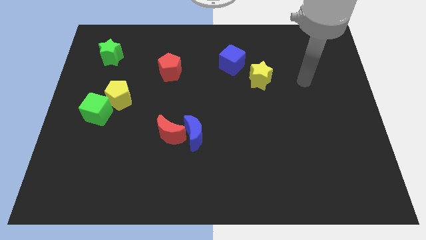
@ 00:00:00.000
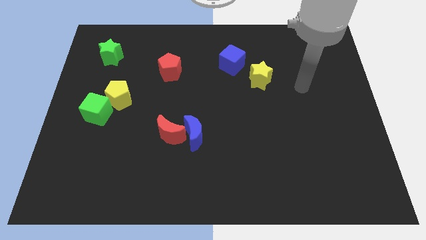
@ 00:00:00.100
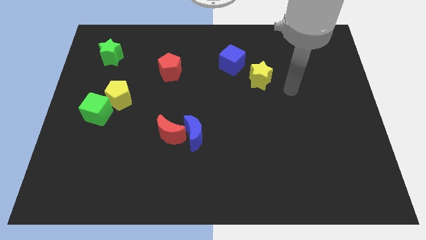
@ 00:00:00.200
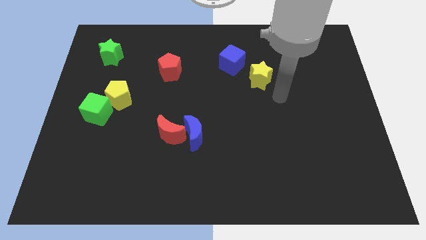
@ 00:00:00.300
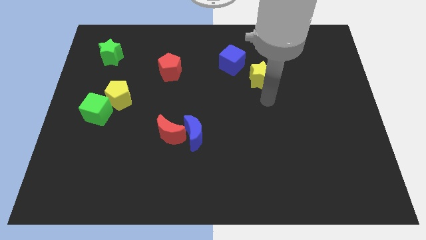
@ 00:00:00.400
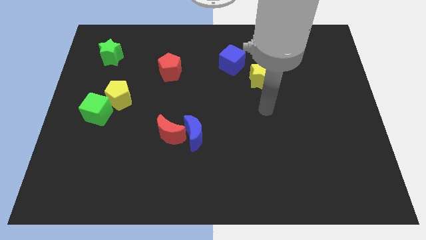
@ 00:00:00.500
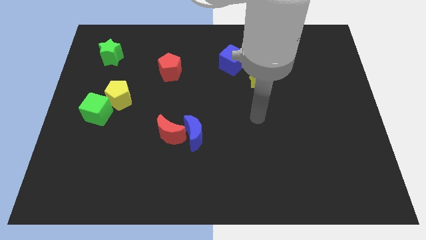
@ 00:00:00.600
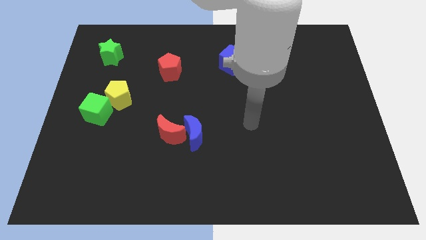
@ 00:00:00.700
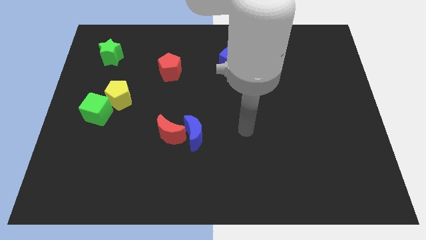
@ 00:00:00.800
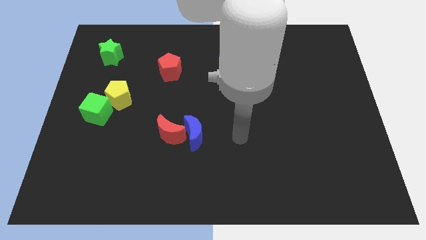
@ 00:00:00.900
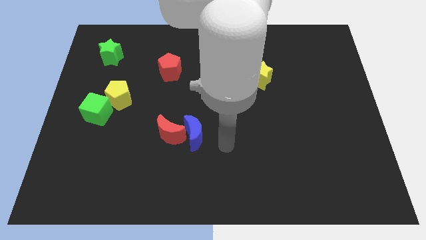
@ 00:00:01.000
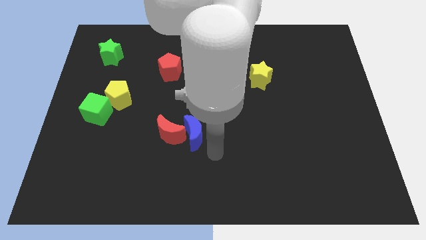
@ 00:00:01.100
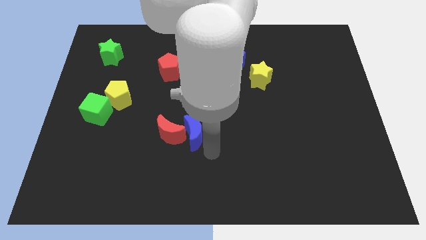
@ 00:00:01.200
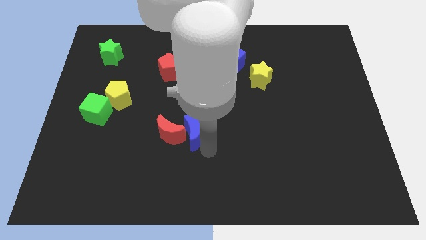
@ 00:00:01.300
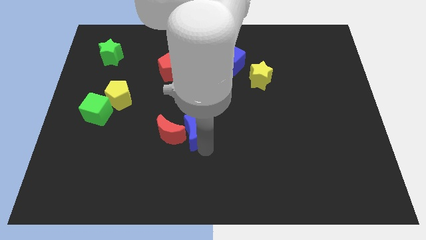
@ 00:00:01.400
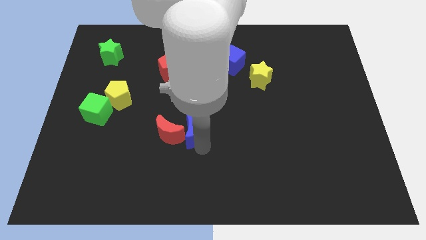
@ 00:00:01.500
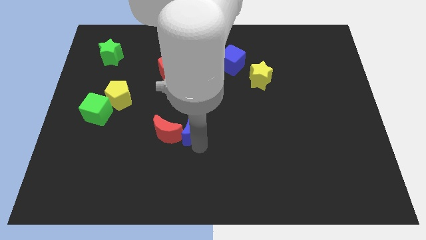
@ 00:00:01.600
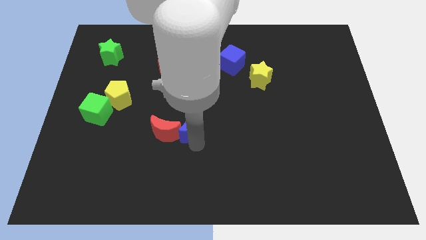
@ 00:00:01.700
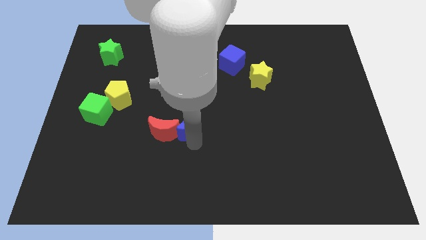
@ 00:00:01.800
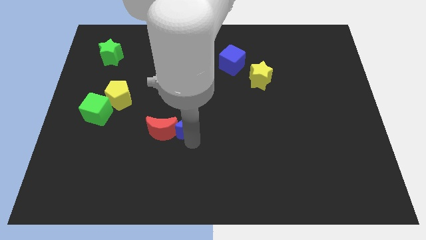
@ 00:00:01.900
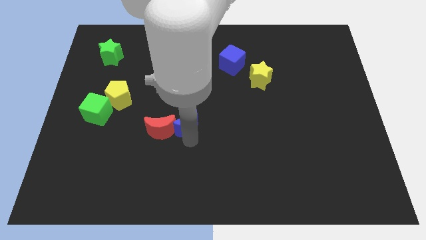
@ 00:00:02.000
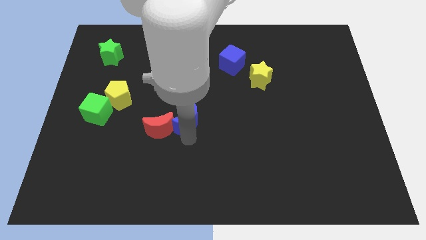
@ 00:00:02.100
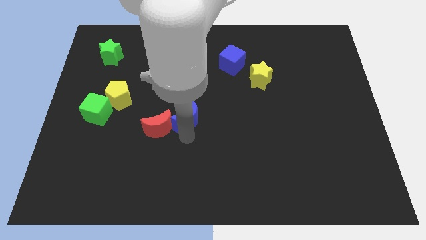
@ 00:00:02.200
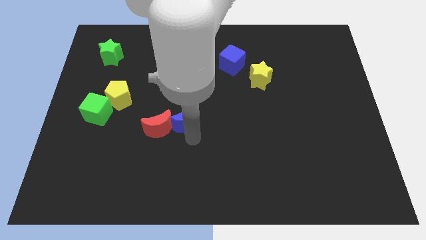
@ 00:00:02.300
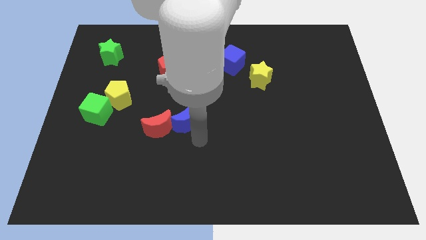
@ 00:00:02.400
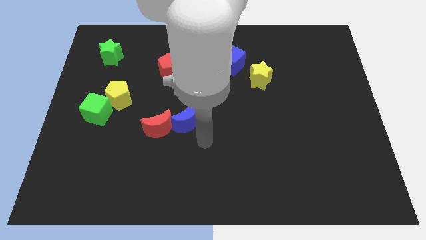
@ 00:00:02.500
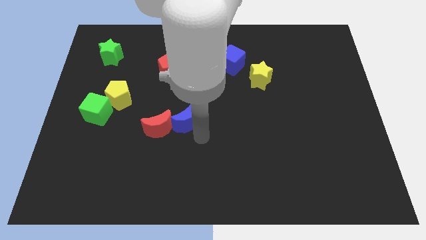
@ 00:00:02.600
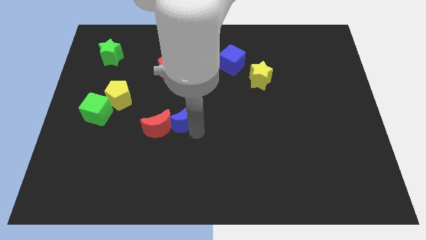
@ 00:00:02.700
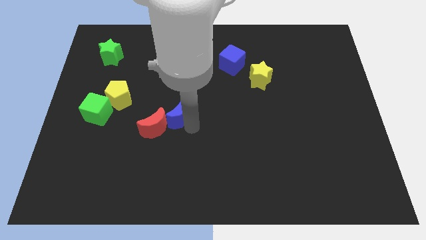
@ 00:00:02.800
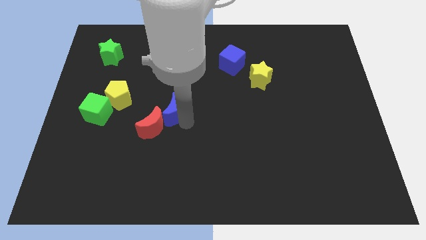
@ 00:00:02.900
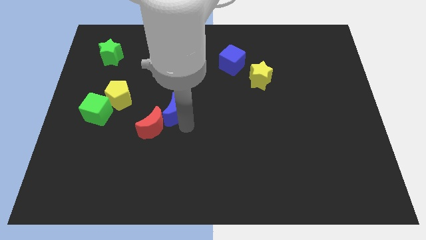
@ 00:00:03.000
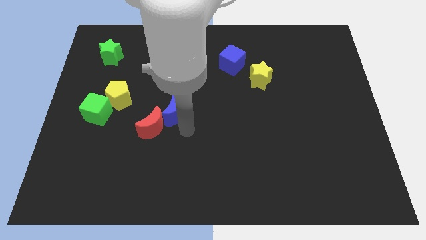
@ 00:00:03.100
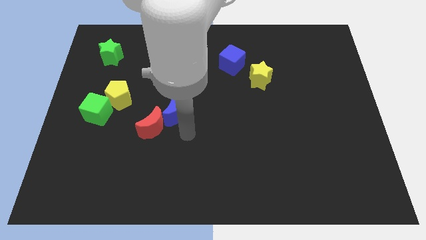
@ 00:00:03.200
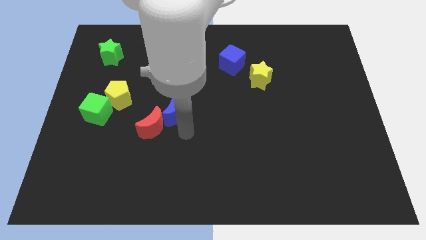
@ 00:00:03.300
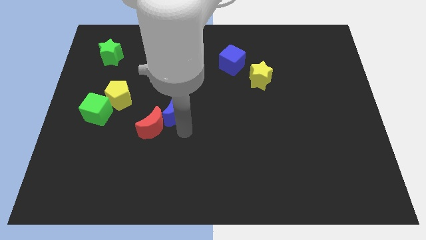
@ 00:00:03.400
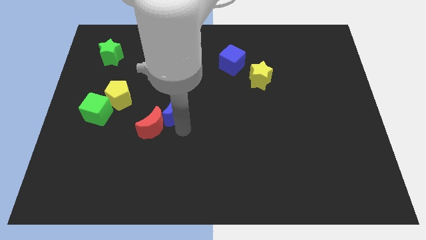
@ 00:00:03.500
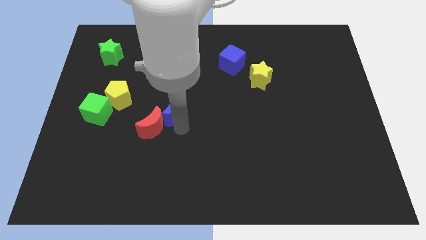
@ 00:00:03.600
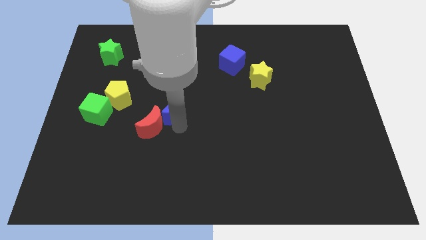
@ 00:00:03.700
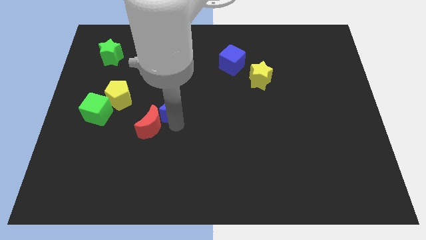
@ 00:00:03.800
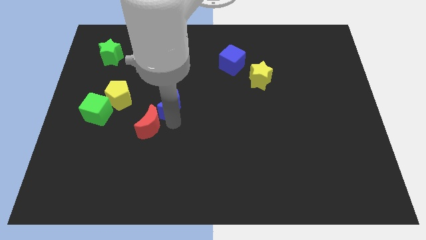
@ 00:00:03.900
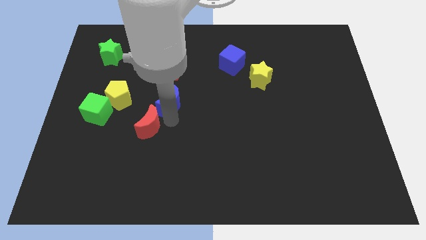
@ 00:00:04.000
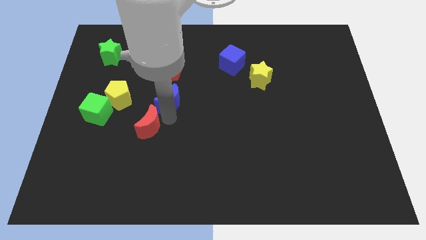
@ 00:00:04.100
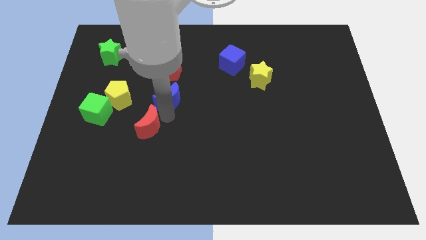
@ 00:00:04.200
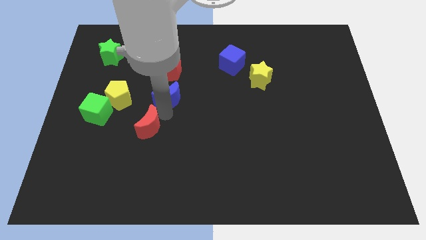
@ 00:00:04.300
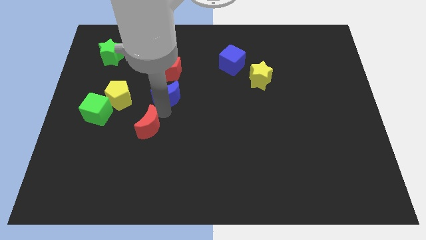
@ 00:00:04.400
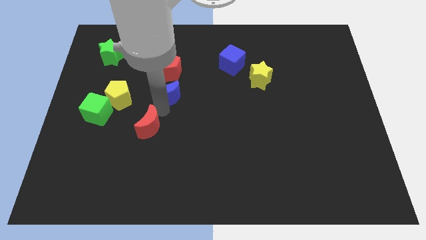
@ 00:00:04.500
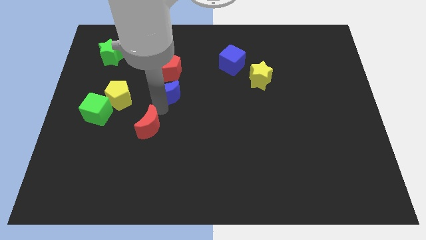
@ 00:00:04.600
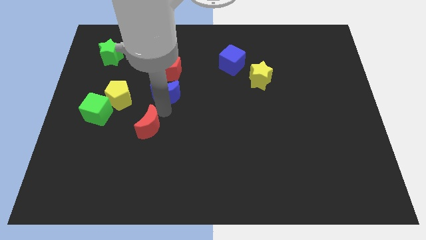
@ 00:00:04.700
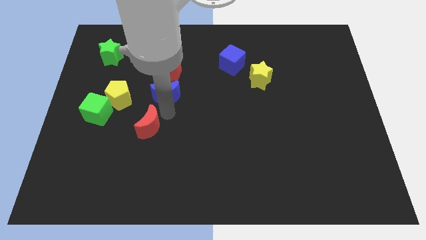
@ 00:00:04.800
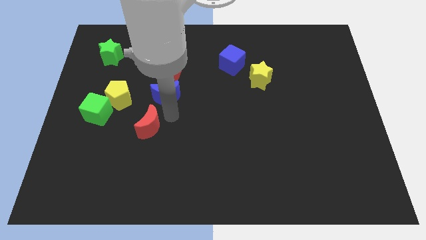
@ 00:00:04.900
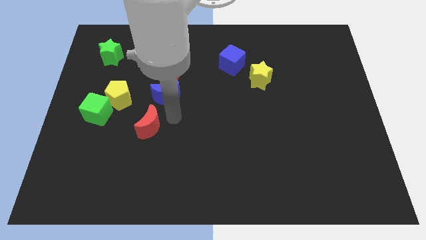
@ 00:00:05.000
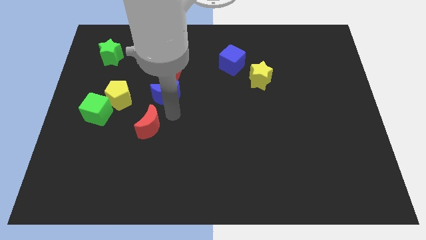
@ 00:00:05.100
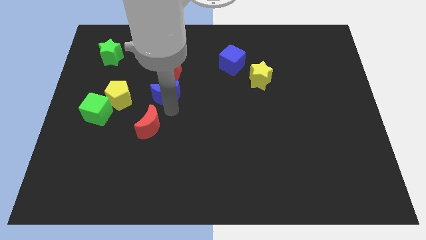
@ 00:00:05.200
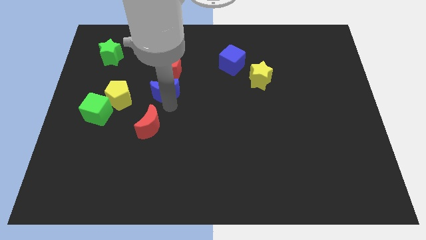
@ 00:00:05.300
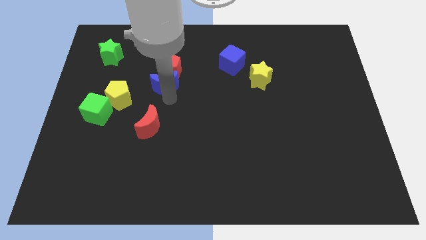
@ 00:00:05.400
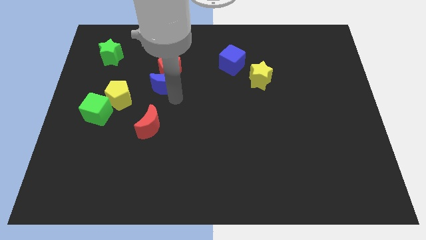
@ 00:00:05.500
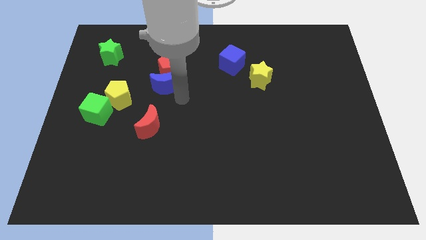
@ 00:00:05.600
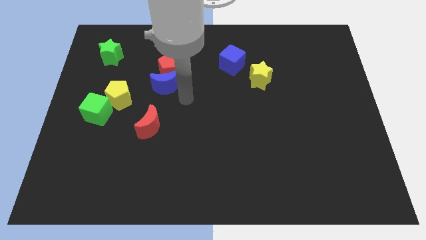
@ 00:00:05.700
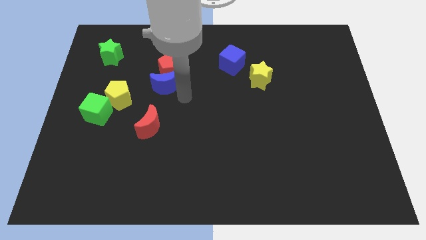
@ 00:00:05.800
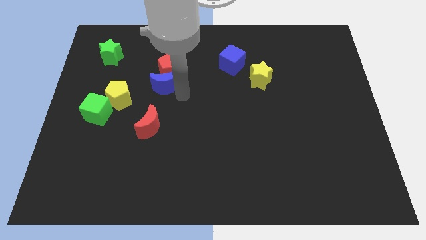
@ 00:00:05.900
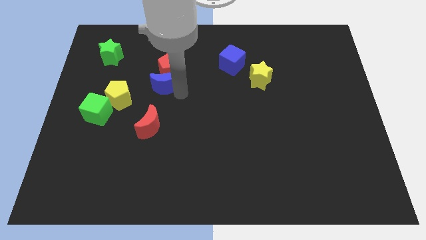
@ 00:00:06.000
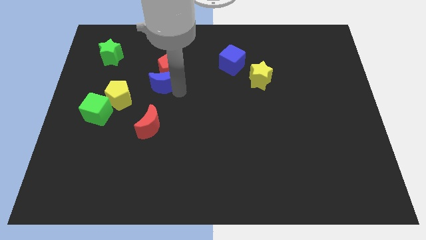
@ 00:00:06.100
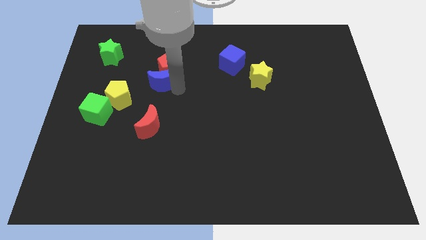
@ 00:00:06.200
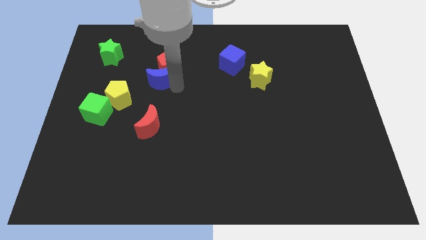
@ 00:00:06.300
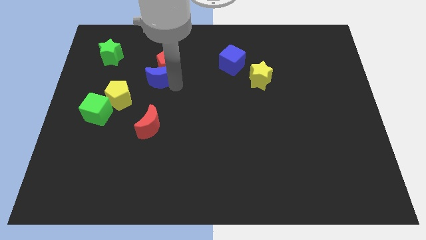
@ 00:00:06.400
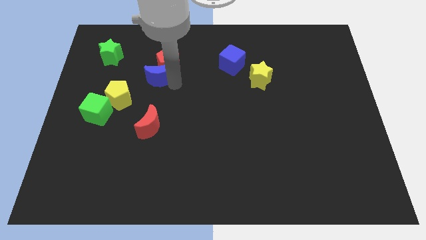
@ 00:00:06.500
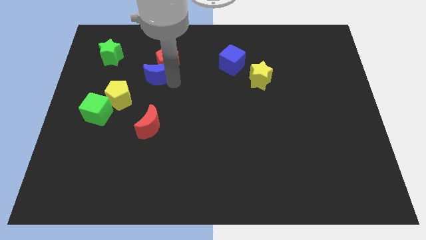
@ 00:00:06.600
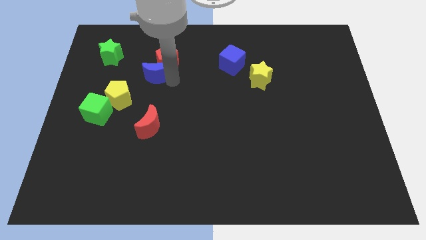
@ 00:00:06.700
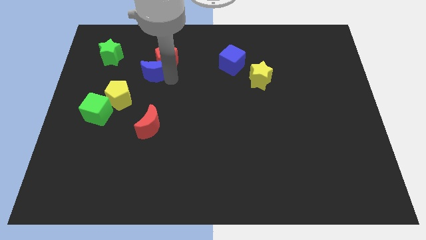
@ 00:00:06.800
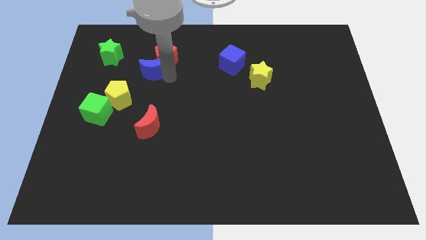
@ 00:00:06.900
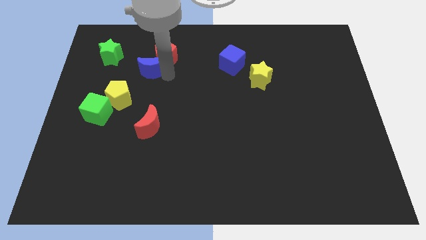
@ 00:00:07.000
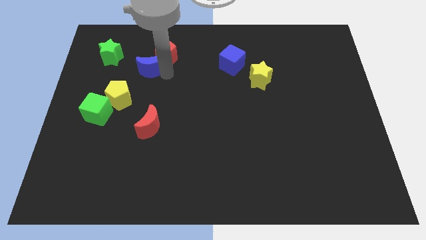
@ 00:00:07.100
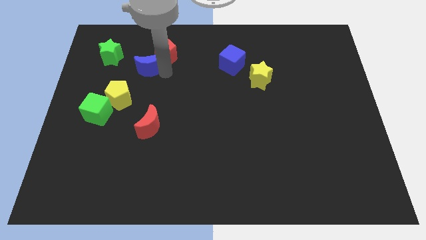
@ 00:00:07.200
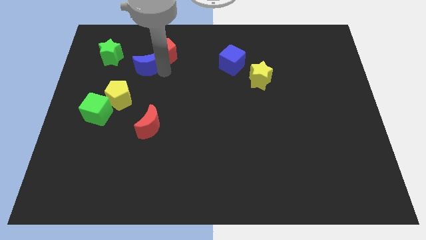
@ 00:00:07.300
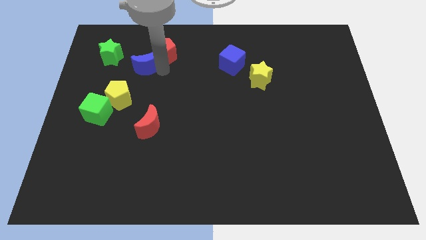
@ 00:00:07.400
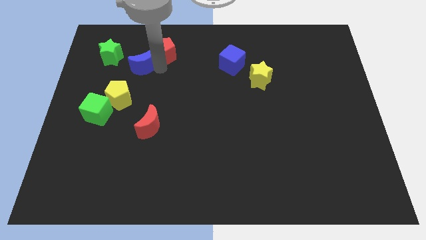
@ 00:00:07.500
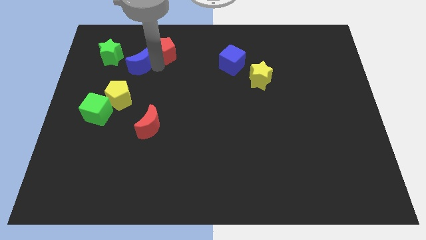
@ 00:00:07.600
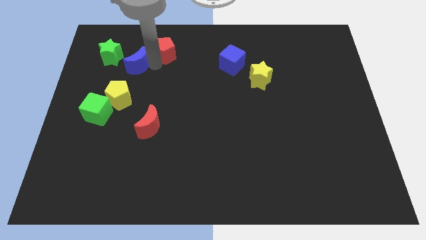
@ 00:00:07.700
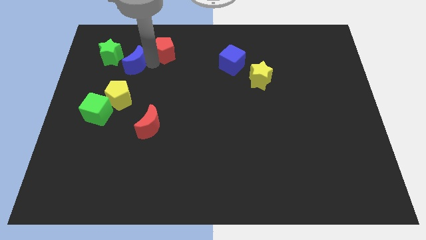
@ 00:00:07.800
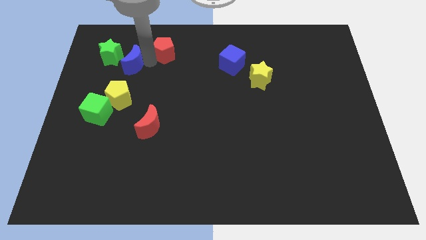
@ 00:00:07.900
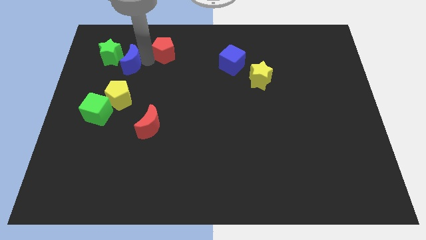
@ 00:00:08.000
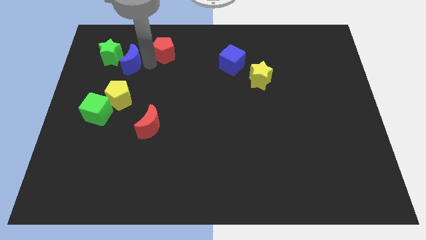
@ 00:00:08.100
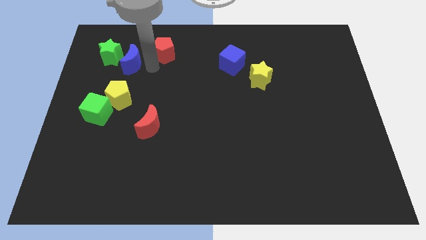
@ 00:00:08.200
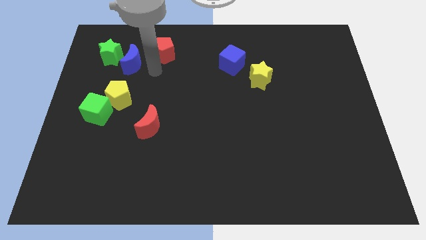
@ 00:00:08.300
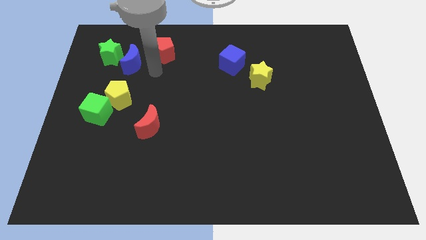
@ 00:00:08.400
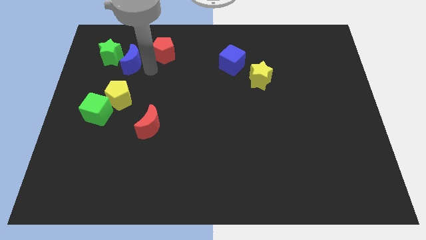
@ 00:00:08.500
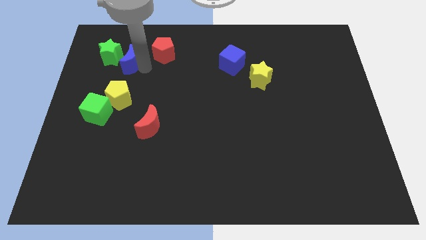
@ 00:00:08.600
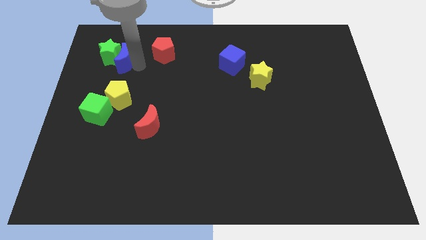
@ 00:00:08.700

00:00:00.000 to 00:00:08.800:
move the blue moon to the green star
